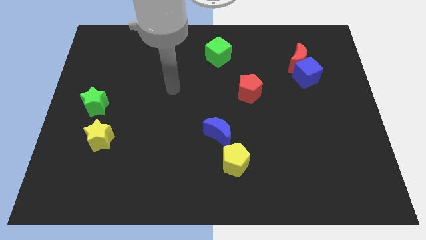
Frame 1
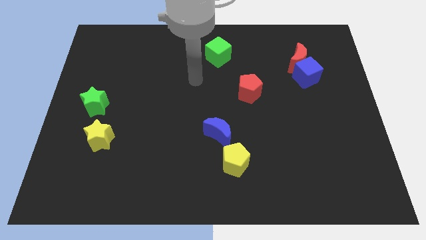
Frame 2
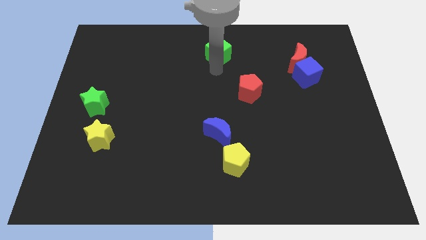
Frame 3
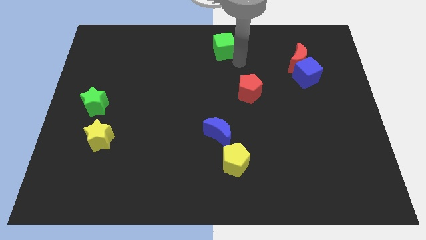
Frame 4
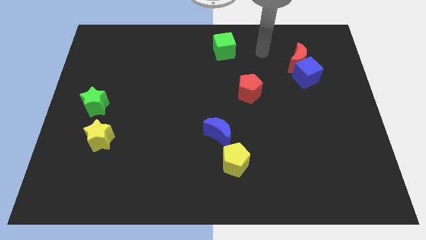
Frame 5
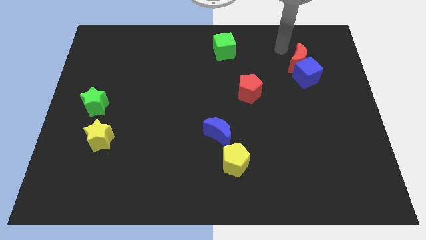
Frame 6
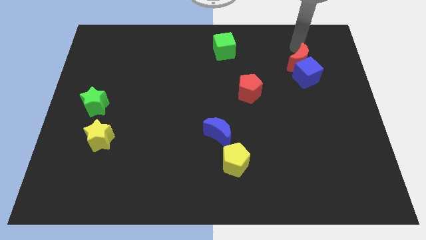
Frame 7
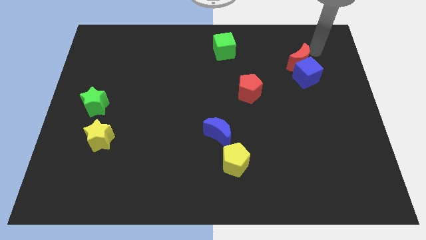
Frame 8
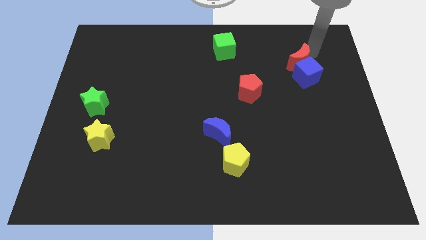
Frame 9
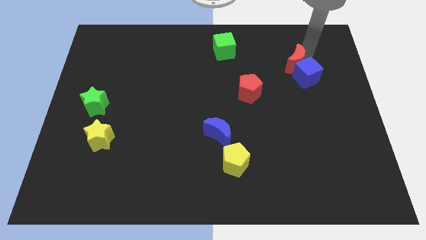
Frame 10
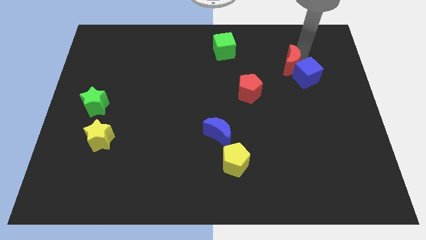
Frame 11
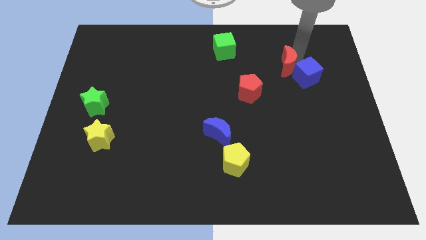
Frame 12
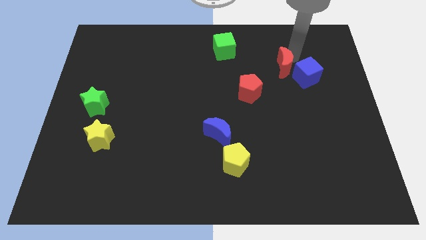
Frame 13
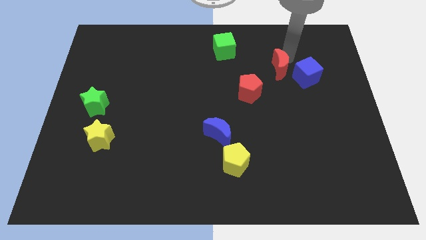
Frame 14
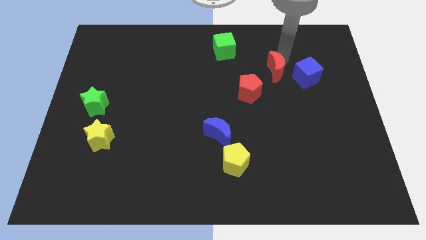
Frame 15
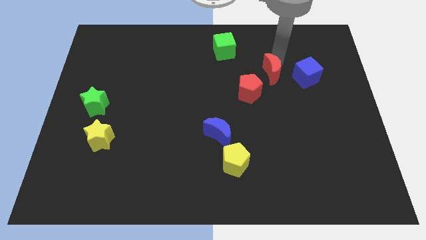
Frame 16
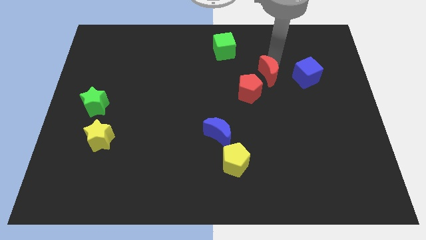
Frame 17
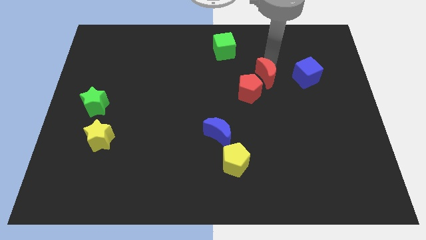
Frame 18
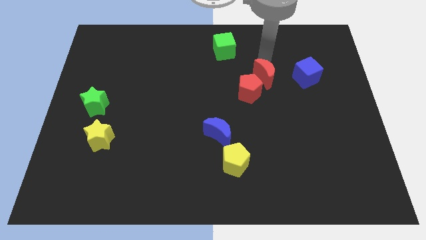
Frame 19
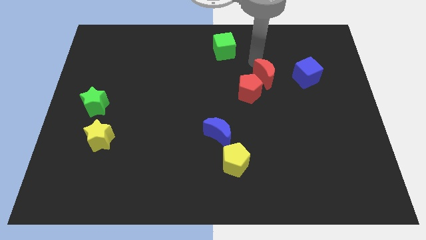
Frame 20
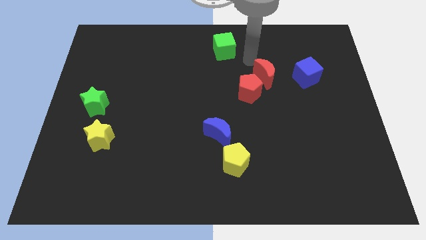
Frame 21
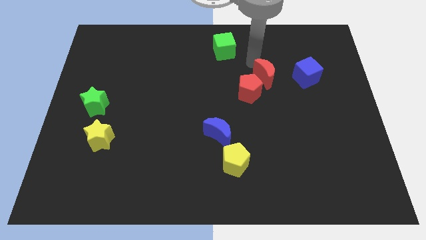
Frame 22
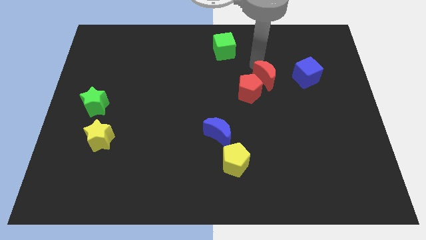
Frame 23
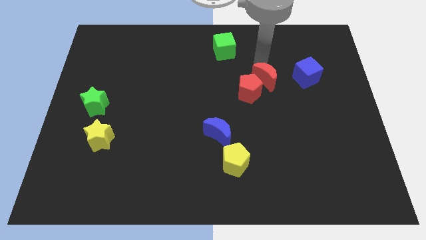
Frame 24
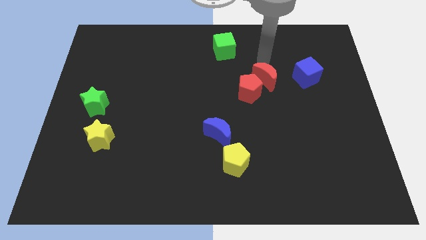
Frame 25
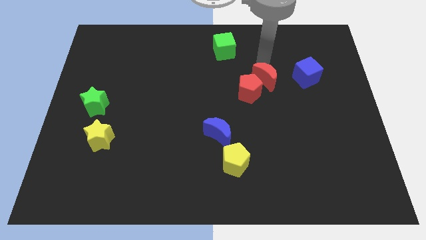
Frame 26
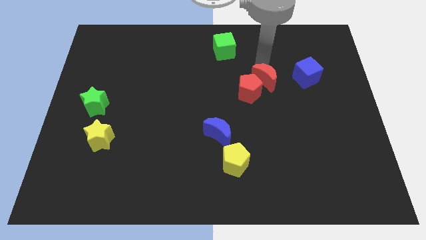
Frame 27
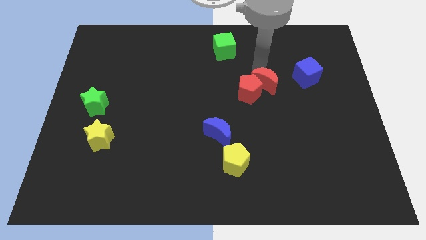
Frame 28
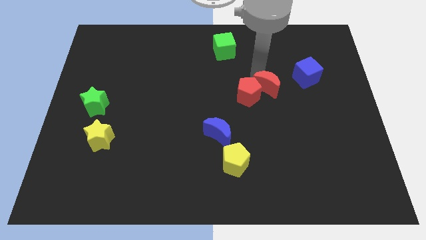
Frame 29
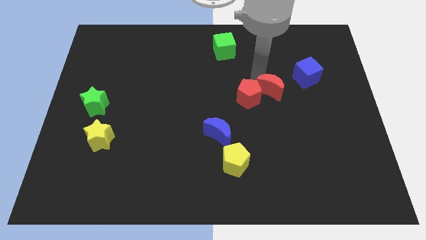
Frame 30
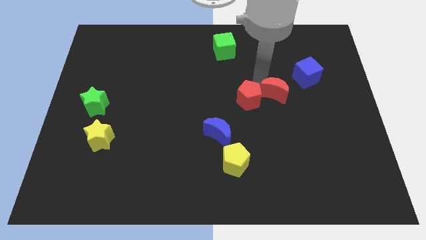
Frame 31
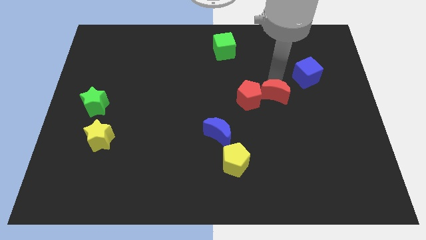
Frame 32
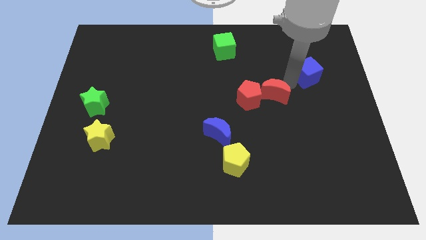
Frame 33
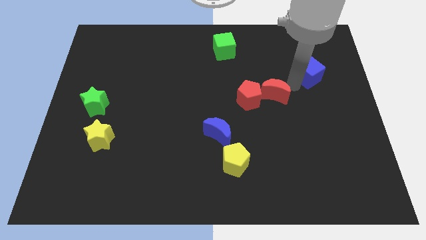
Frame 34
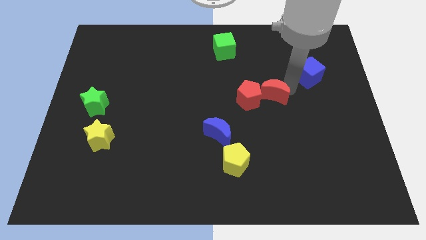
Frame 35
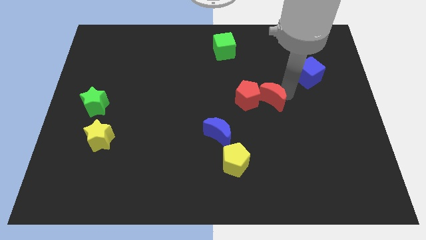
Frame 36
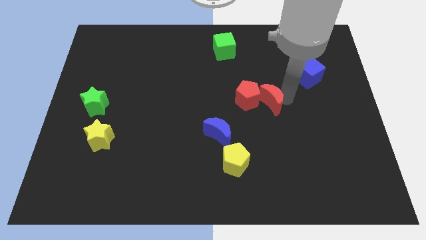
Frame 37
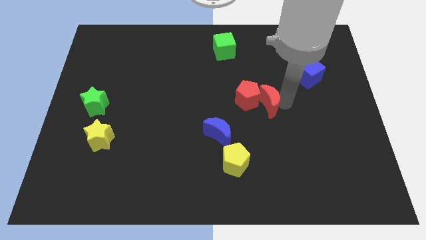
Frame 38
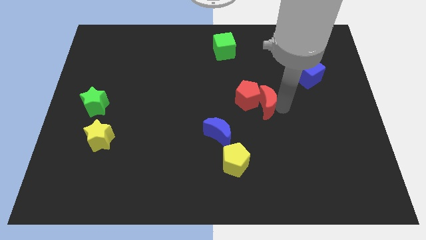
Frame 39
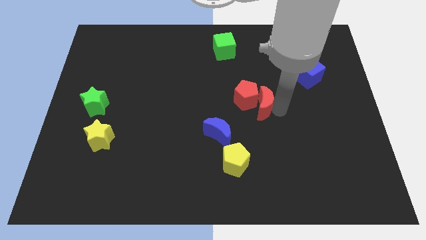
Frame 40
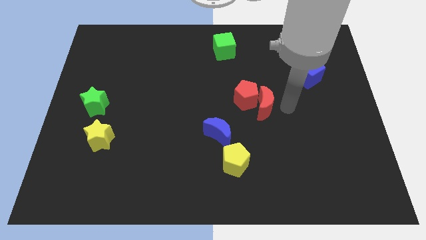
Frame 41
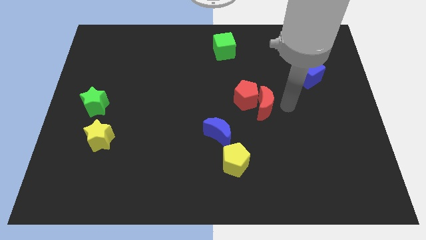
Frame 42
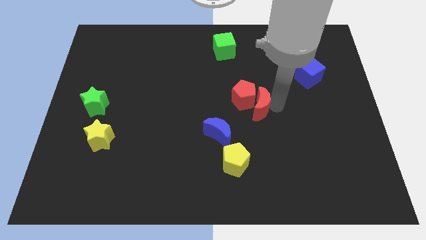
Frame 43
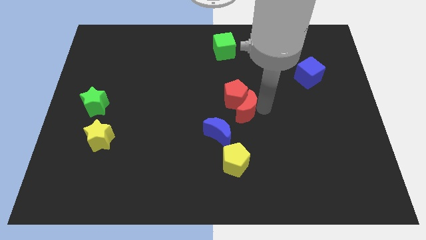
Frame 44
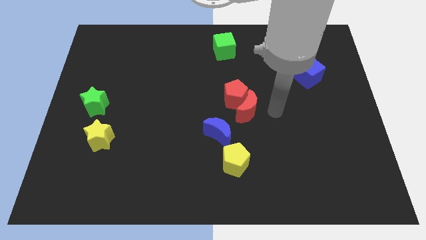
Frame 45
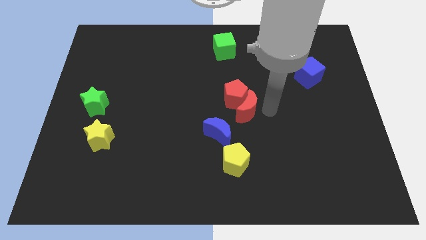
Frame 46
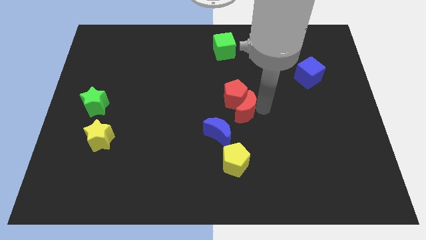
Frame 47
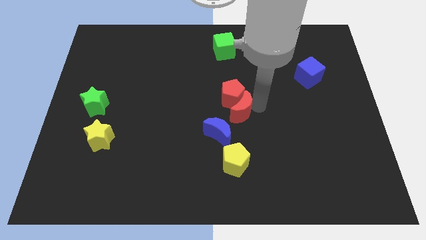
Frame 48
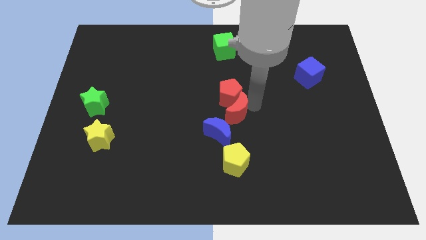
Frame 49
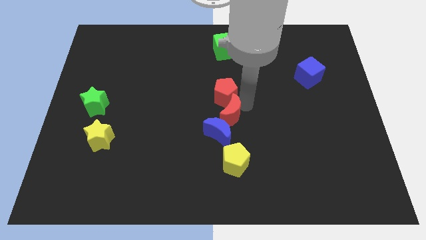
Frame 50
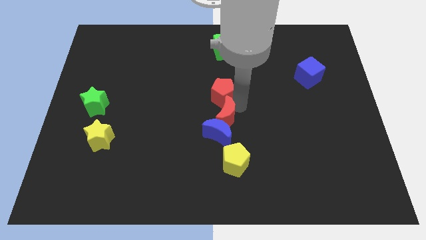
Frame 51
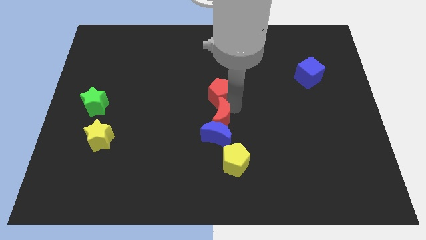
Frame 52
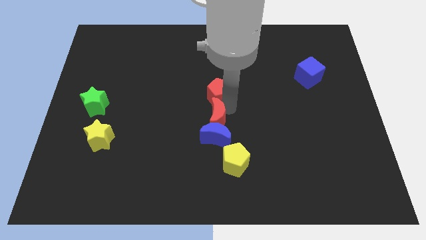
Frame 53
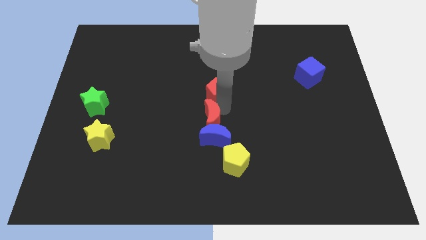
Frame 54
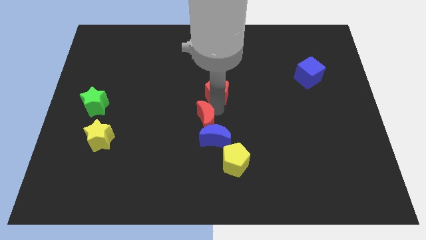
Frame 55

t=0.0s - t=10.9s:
put the red moon to the top left of the yellow pentagon

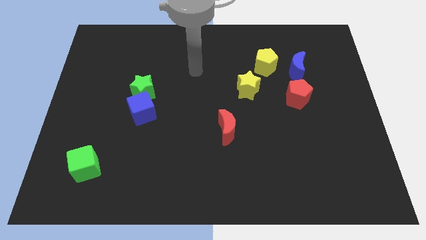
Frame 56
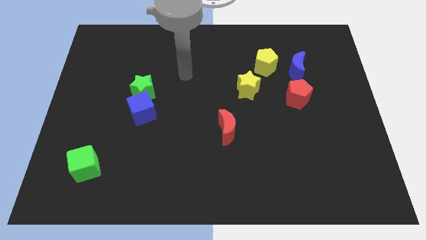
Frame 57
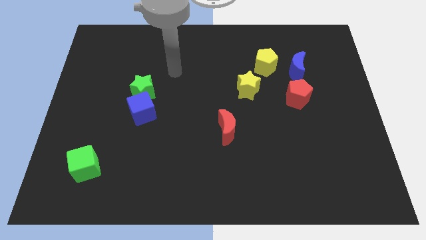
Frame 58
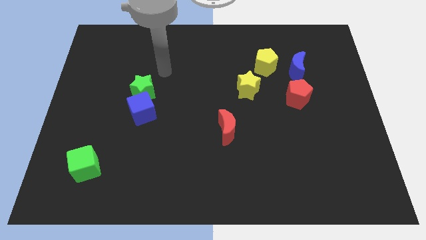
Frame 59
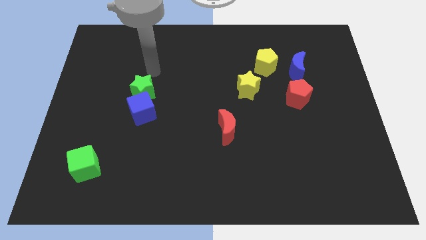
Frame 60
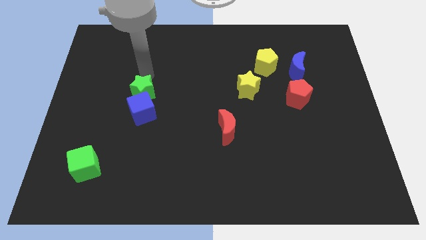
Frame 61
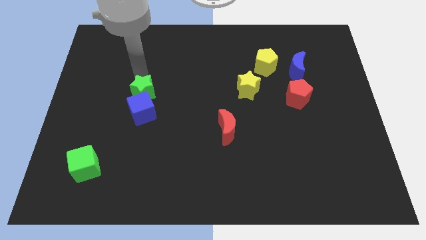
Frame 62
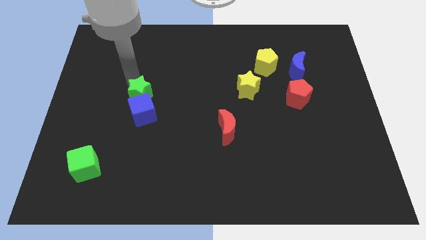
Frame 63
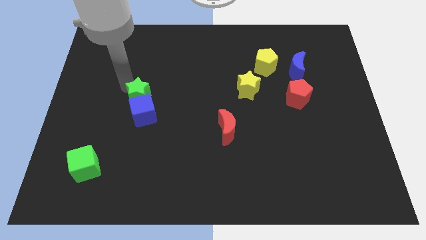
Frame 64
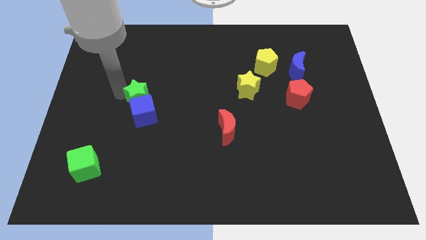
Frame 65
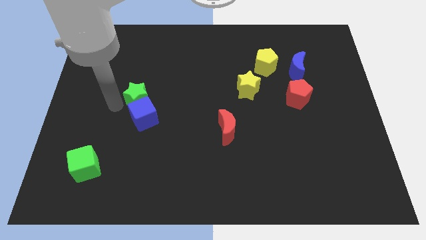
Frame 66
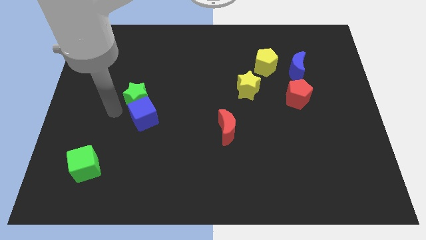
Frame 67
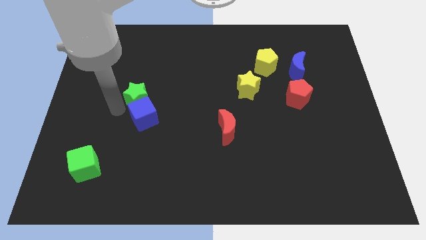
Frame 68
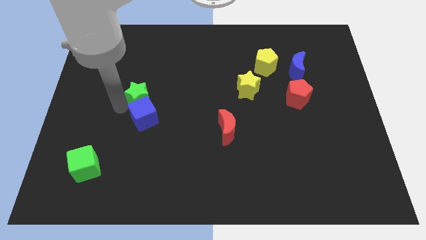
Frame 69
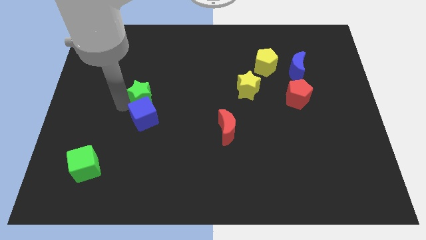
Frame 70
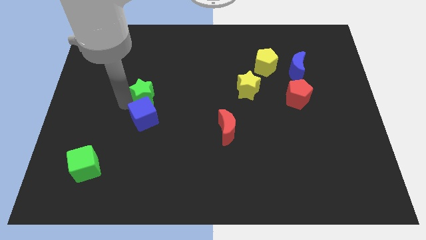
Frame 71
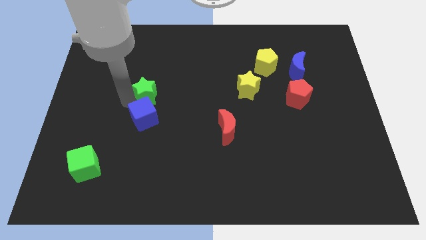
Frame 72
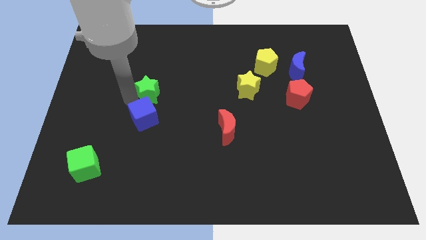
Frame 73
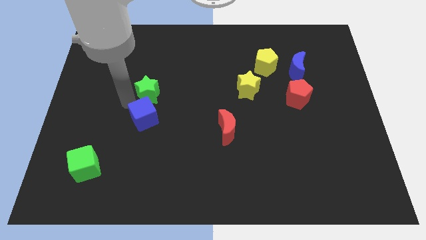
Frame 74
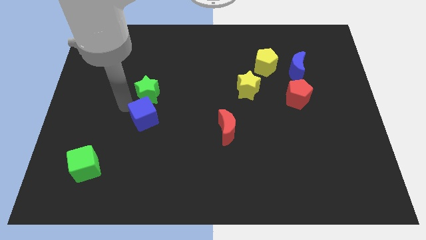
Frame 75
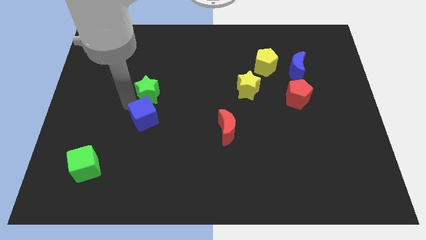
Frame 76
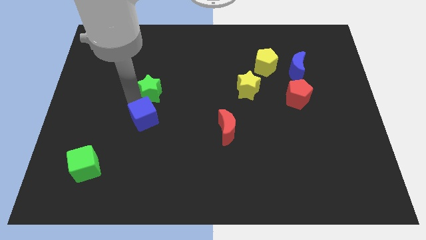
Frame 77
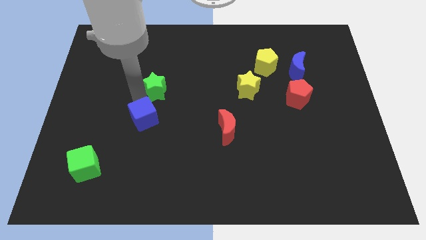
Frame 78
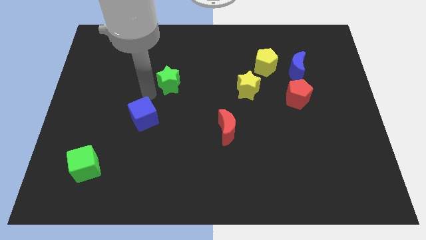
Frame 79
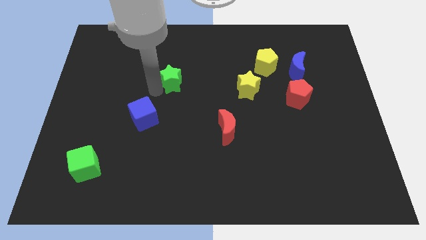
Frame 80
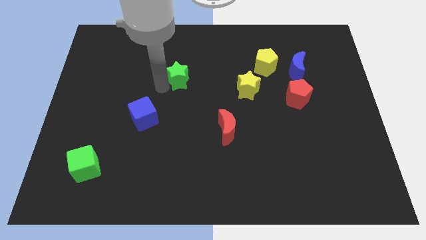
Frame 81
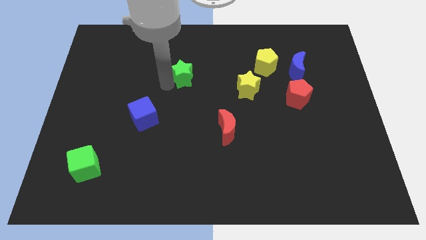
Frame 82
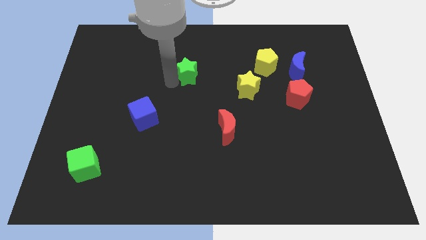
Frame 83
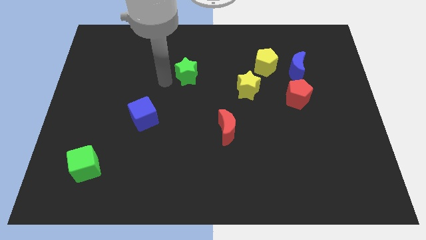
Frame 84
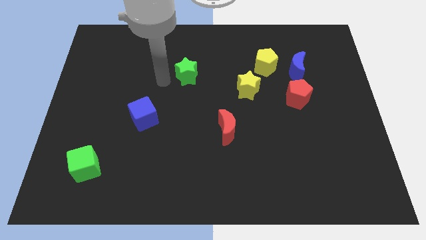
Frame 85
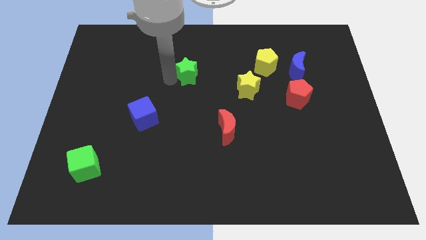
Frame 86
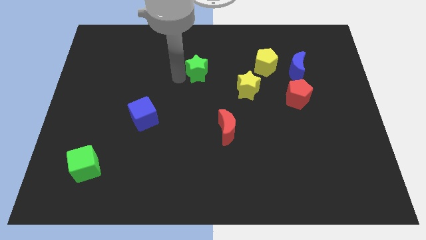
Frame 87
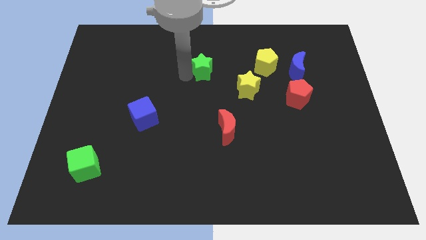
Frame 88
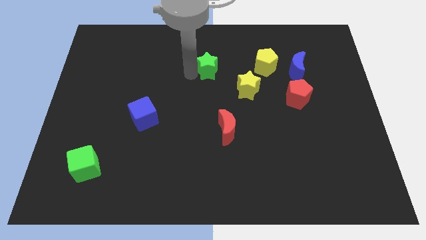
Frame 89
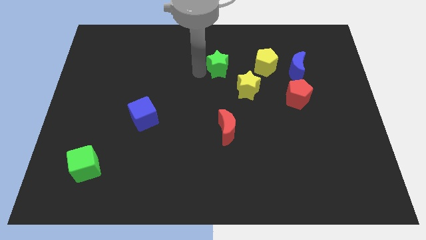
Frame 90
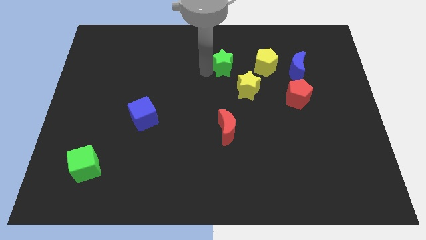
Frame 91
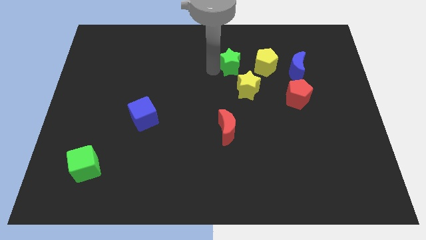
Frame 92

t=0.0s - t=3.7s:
move the green star above the yellow star
